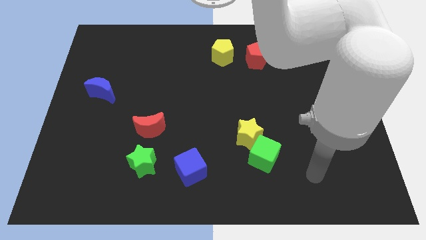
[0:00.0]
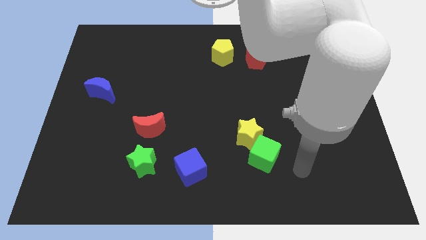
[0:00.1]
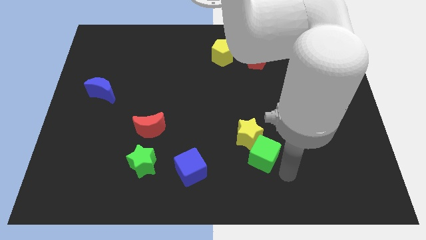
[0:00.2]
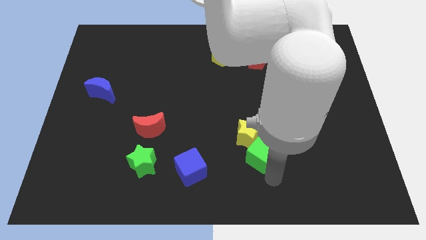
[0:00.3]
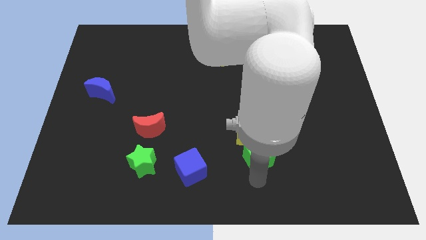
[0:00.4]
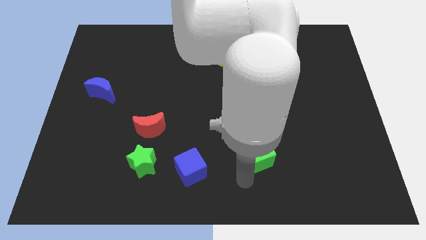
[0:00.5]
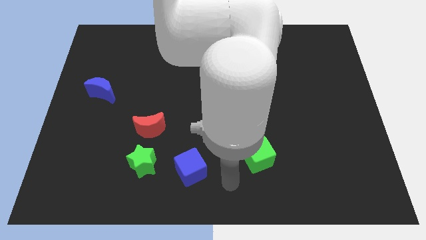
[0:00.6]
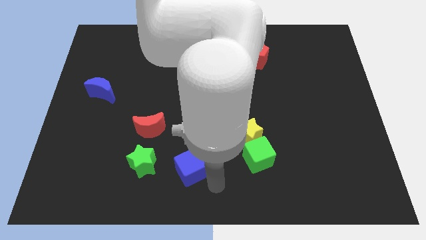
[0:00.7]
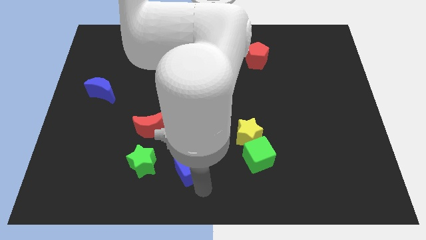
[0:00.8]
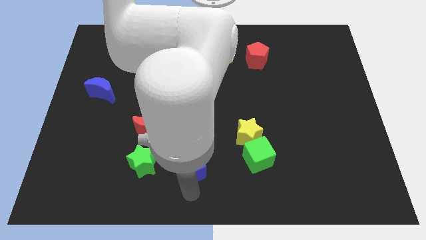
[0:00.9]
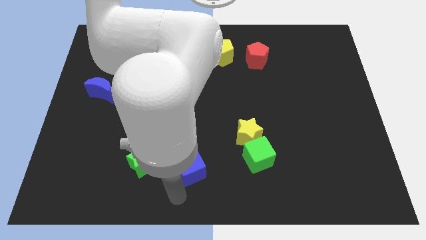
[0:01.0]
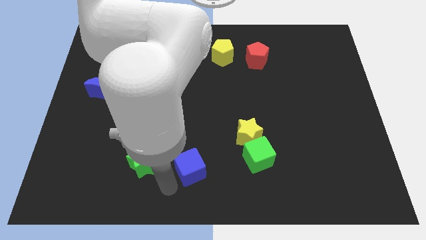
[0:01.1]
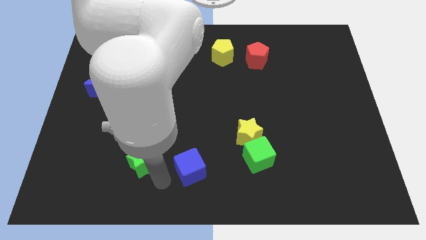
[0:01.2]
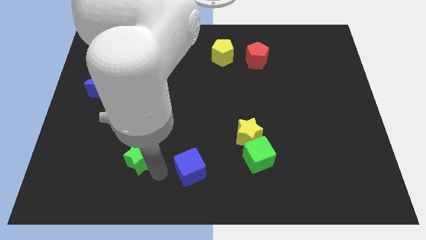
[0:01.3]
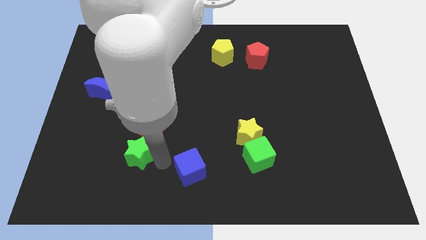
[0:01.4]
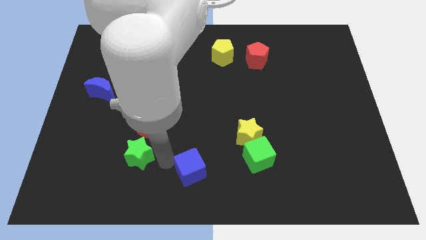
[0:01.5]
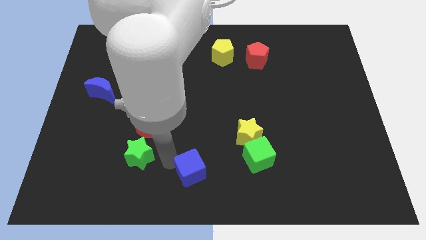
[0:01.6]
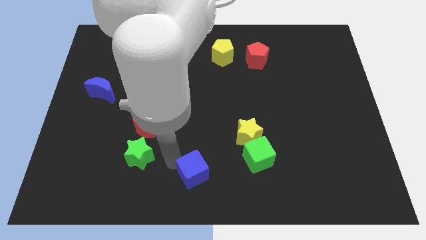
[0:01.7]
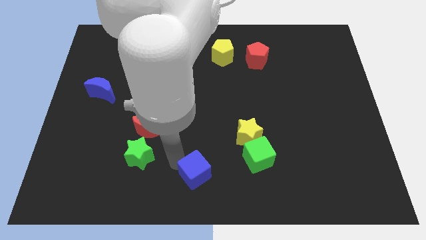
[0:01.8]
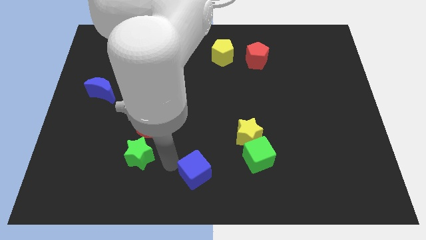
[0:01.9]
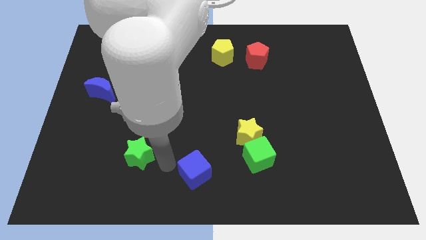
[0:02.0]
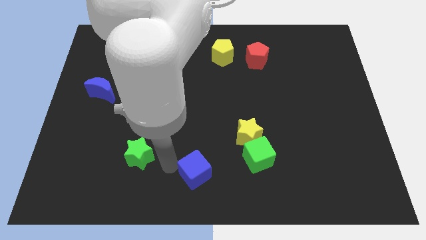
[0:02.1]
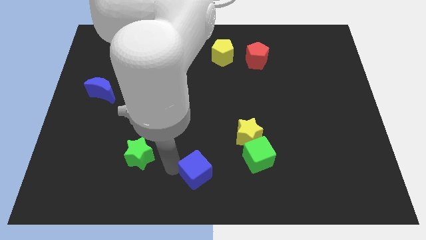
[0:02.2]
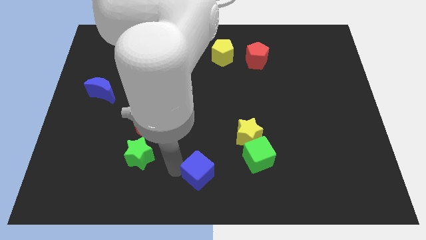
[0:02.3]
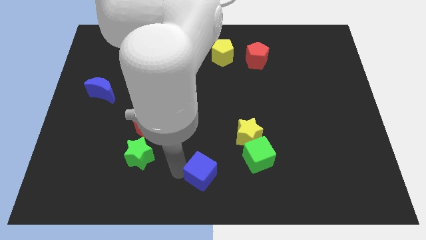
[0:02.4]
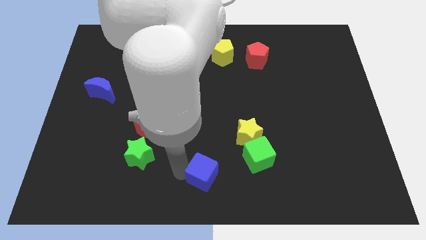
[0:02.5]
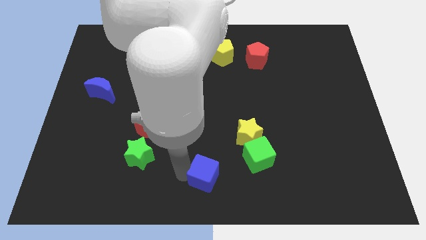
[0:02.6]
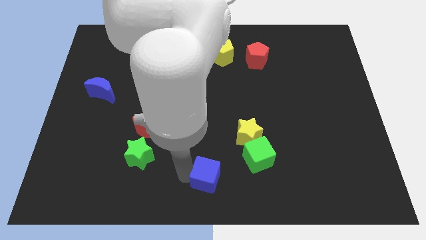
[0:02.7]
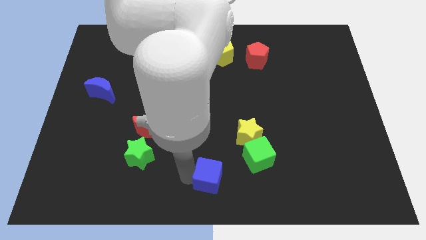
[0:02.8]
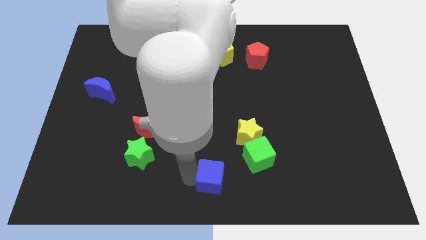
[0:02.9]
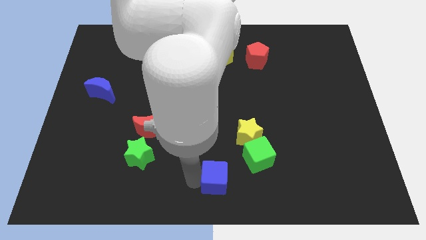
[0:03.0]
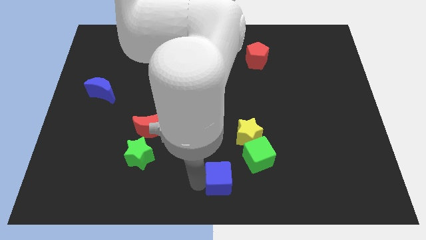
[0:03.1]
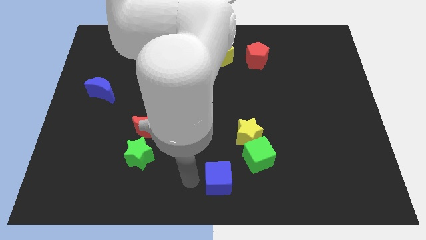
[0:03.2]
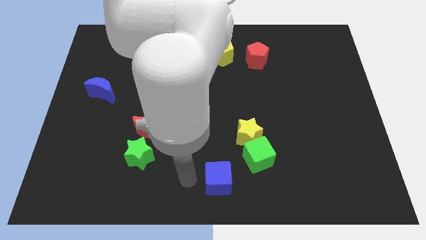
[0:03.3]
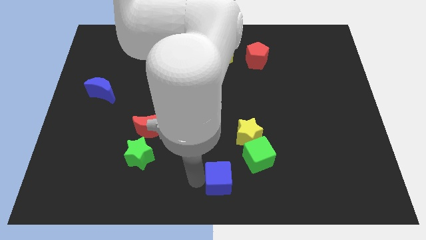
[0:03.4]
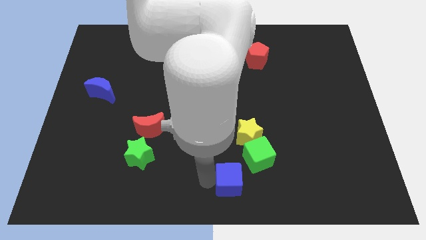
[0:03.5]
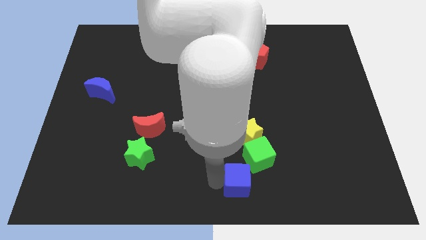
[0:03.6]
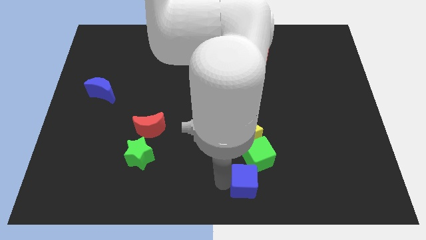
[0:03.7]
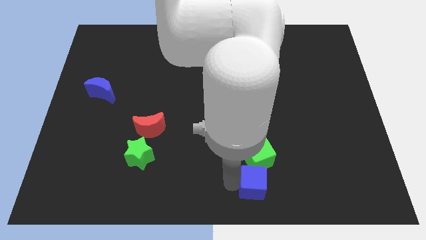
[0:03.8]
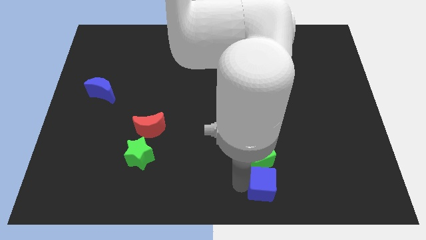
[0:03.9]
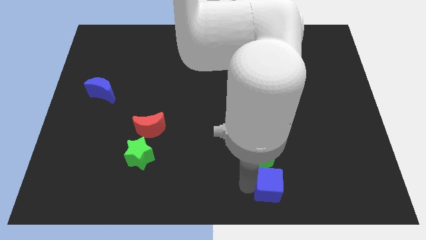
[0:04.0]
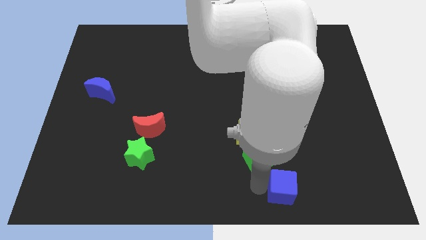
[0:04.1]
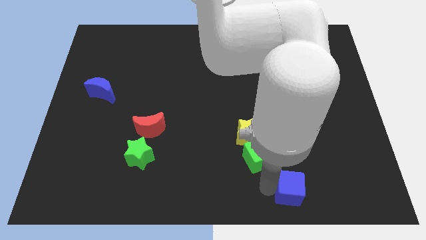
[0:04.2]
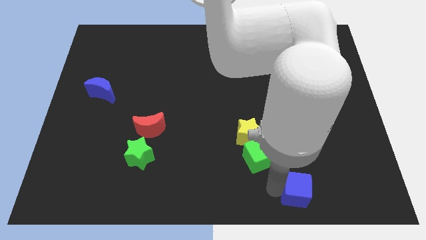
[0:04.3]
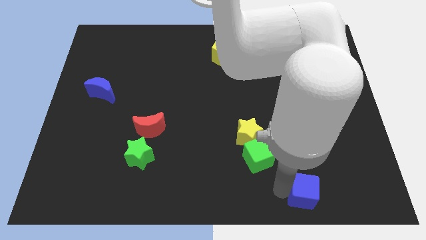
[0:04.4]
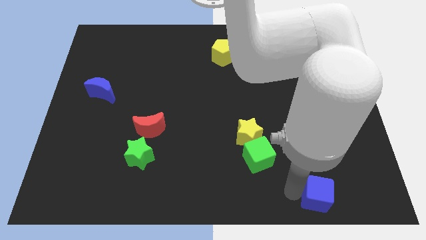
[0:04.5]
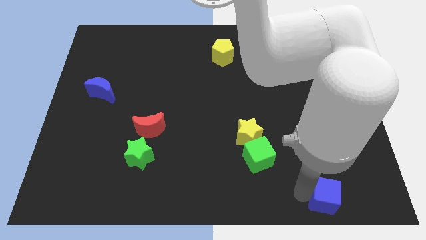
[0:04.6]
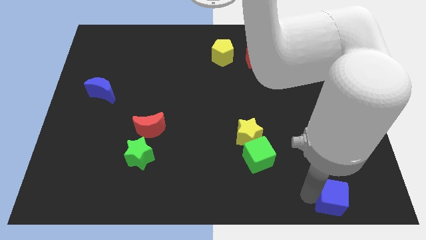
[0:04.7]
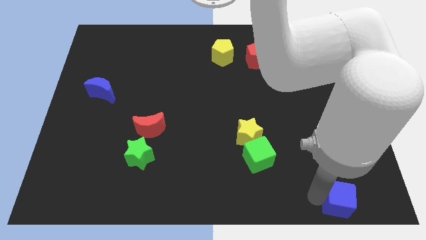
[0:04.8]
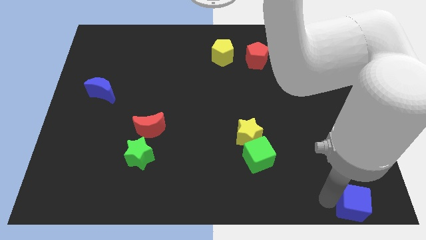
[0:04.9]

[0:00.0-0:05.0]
push the blue cube to the bottom right corner

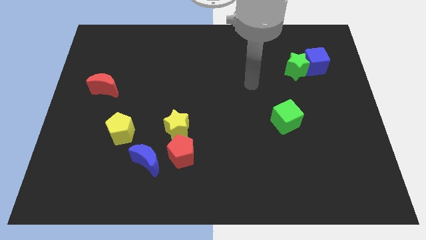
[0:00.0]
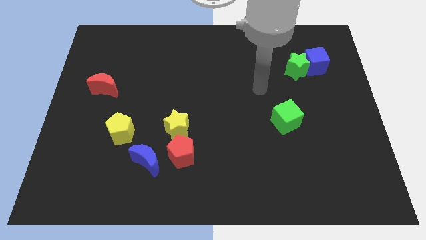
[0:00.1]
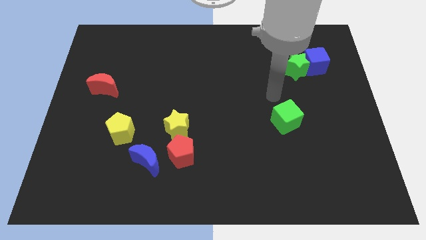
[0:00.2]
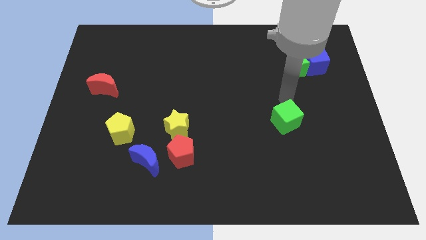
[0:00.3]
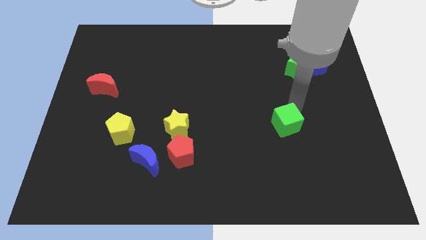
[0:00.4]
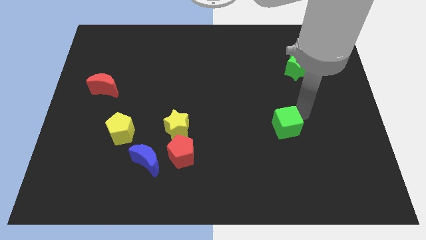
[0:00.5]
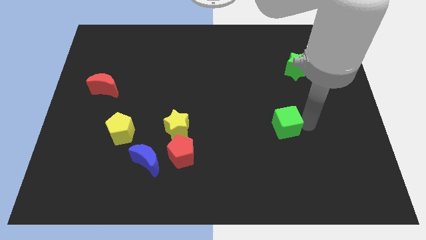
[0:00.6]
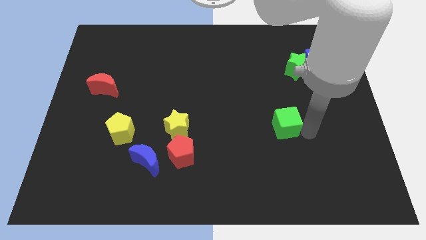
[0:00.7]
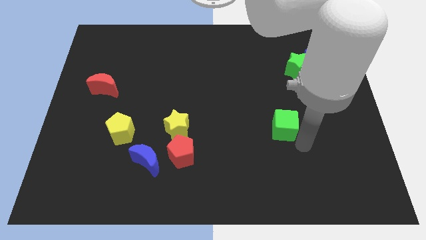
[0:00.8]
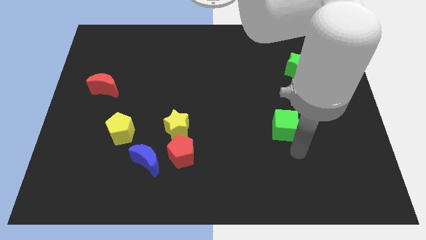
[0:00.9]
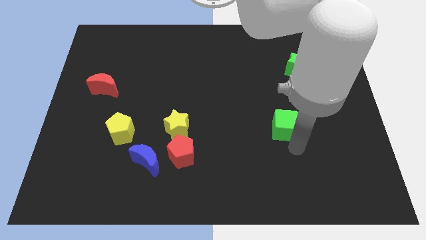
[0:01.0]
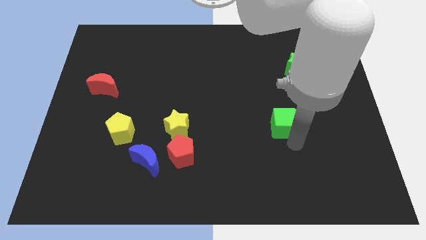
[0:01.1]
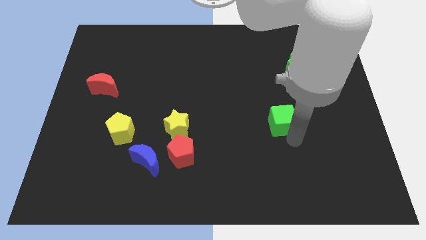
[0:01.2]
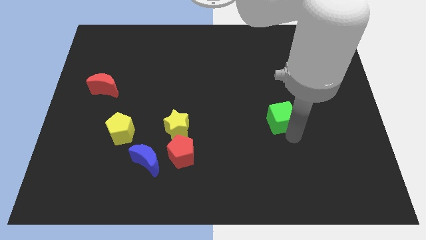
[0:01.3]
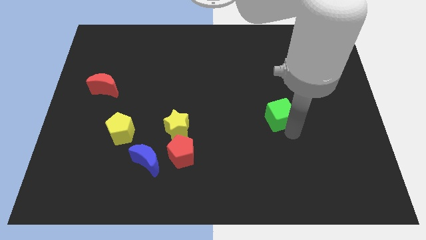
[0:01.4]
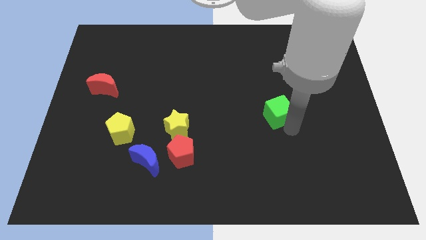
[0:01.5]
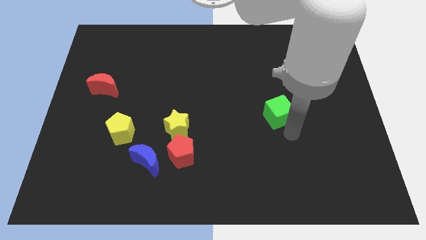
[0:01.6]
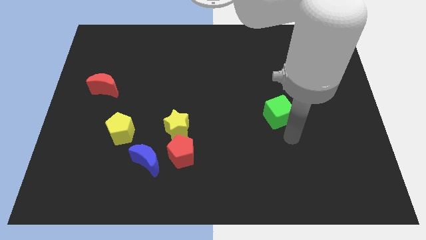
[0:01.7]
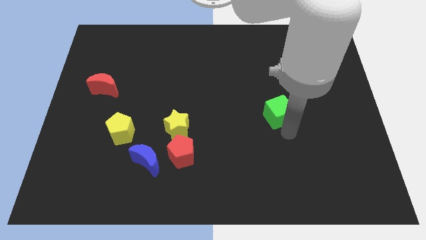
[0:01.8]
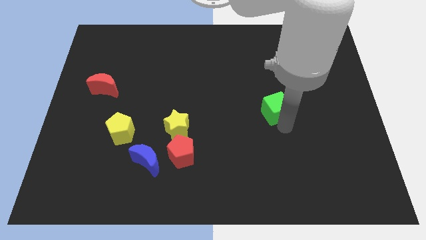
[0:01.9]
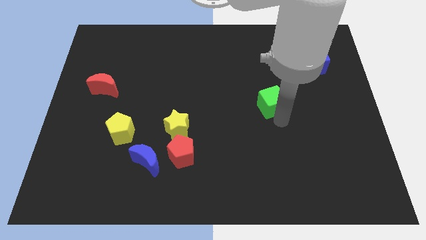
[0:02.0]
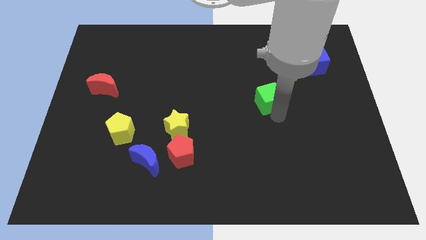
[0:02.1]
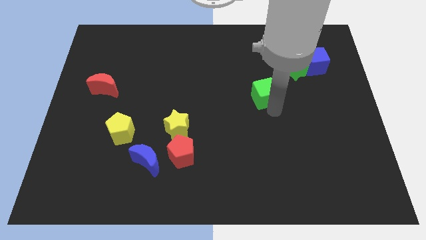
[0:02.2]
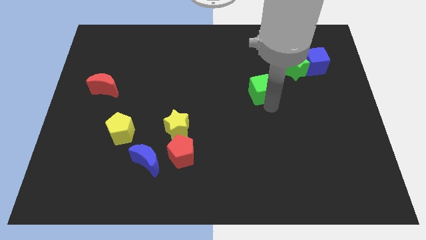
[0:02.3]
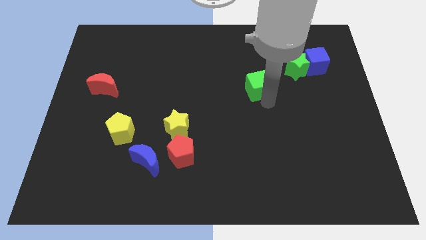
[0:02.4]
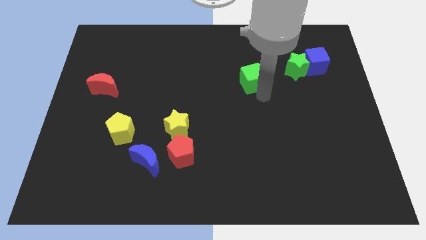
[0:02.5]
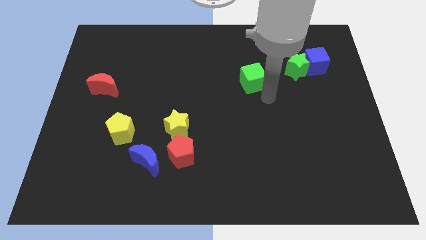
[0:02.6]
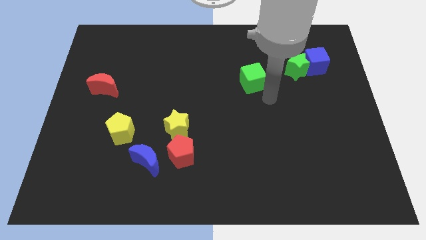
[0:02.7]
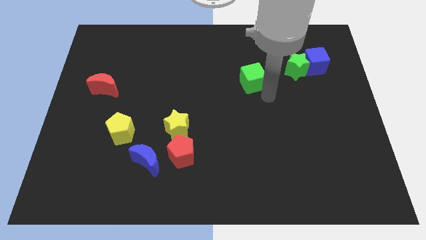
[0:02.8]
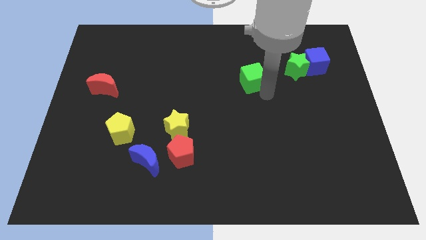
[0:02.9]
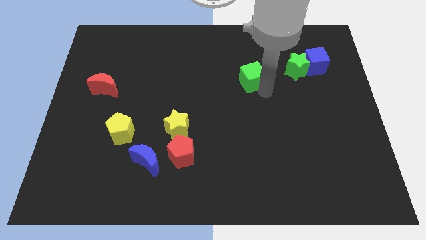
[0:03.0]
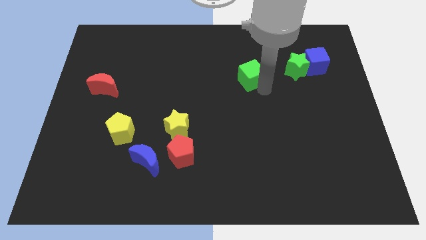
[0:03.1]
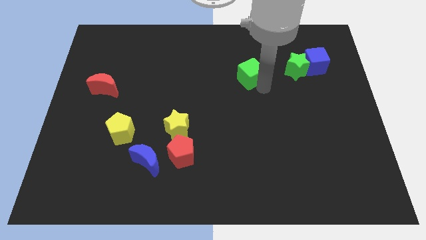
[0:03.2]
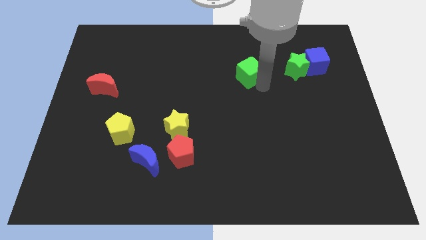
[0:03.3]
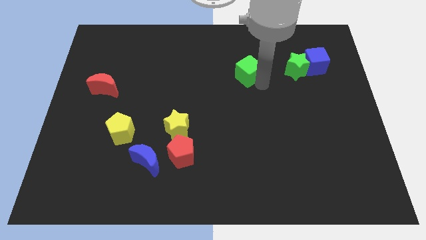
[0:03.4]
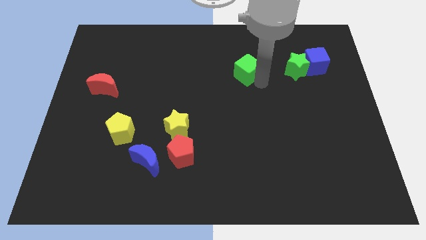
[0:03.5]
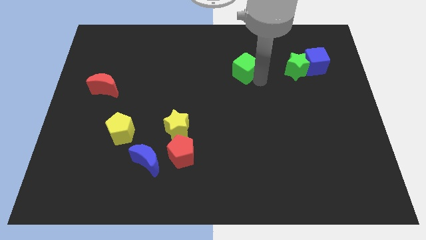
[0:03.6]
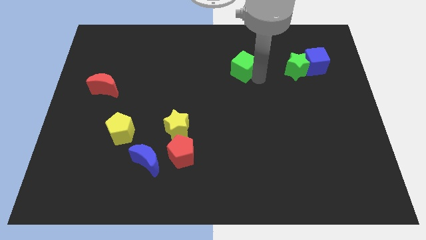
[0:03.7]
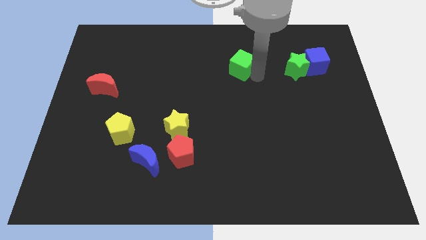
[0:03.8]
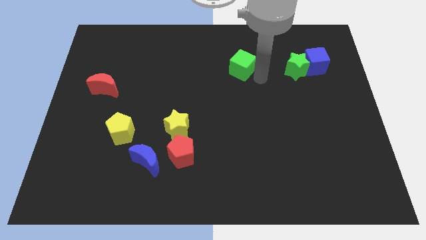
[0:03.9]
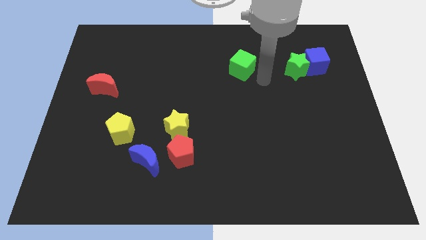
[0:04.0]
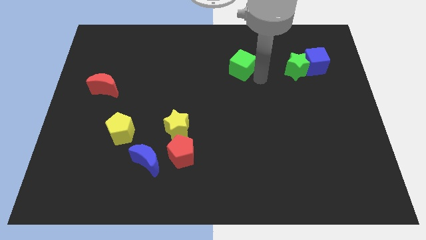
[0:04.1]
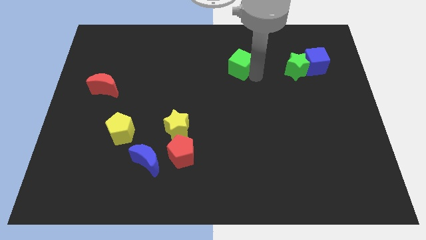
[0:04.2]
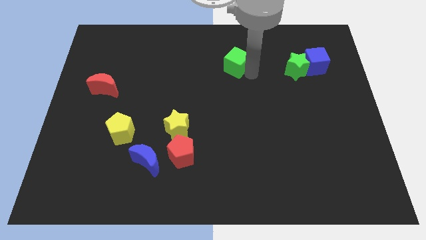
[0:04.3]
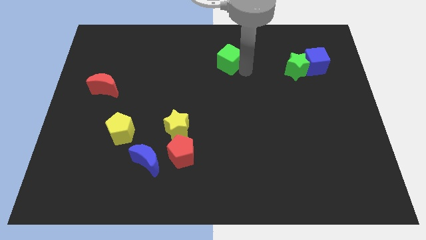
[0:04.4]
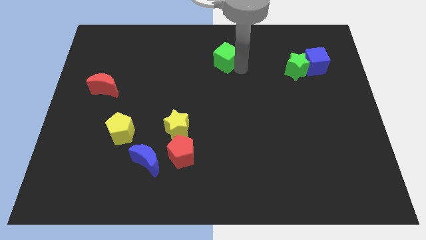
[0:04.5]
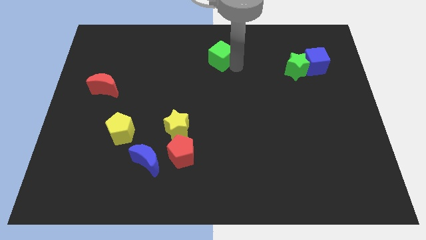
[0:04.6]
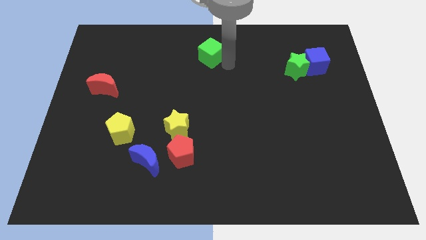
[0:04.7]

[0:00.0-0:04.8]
move the green cube to the top
